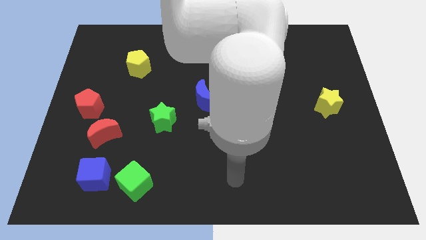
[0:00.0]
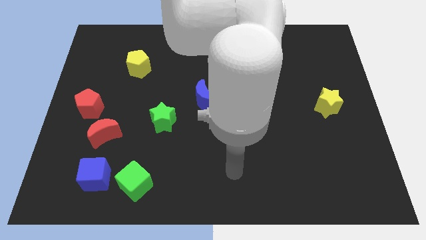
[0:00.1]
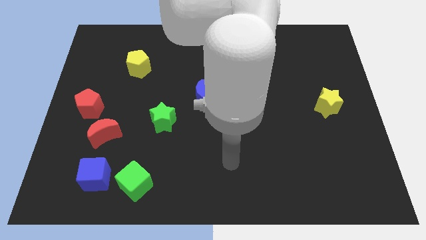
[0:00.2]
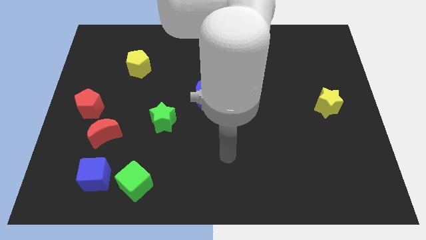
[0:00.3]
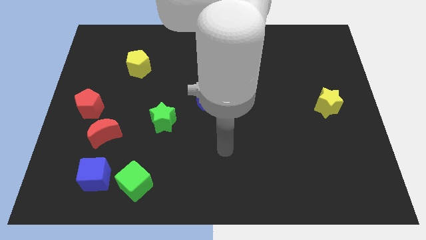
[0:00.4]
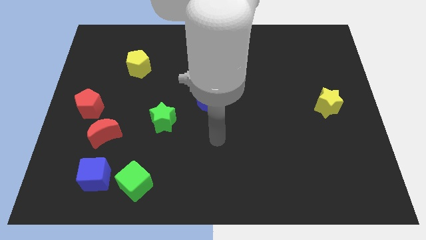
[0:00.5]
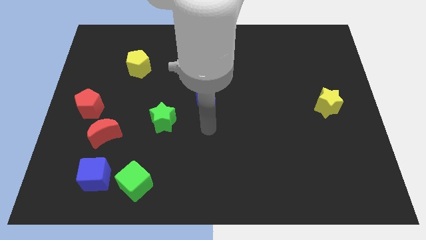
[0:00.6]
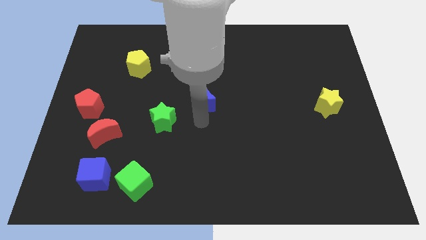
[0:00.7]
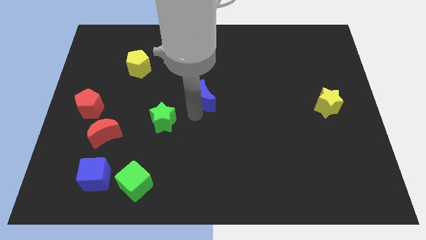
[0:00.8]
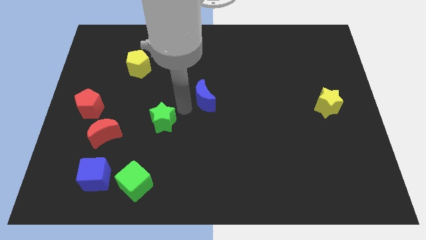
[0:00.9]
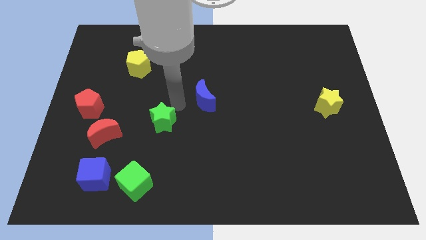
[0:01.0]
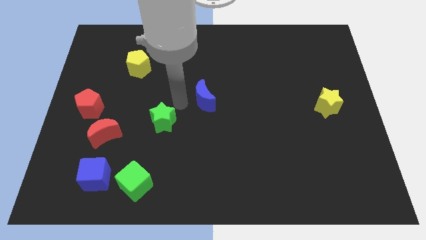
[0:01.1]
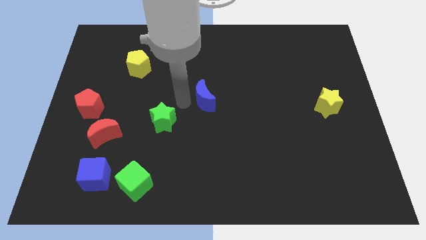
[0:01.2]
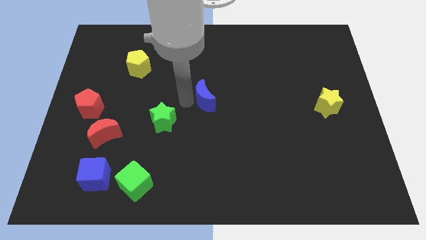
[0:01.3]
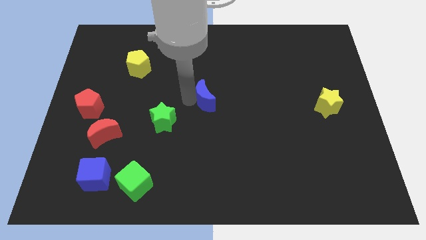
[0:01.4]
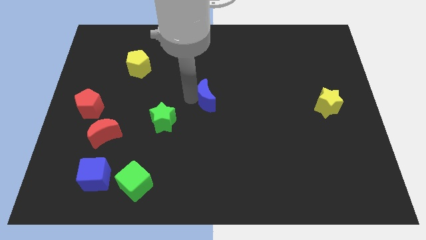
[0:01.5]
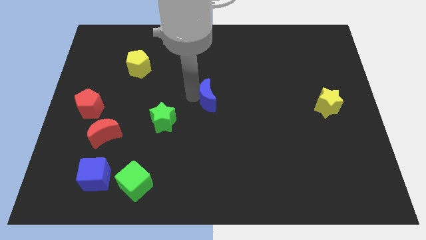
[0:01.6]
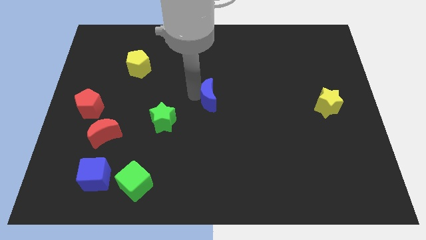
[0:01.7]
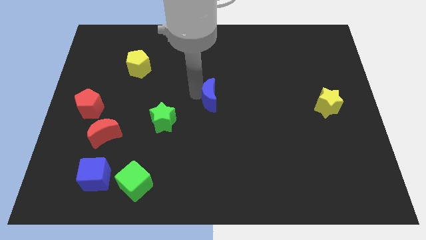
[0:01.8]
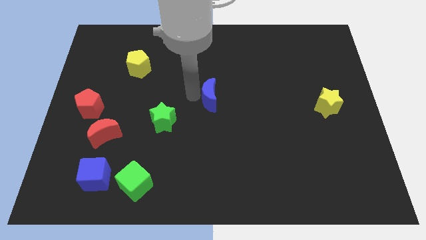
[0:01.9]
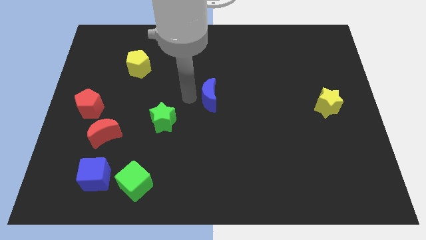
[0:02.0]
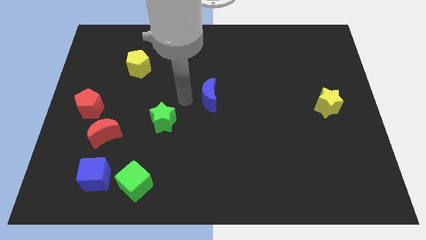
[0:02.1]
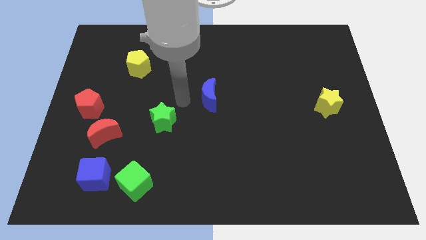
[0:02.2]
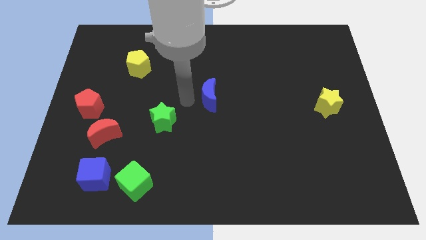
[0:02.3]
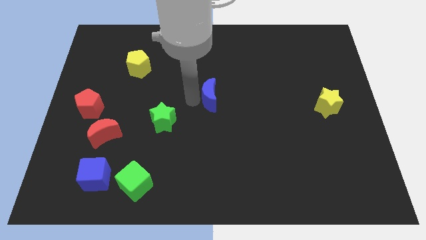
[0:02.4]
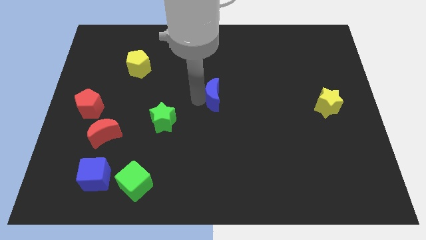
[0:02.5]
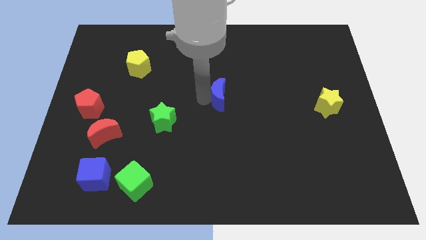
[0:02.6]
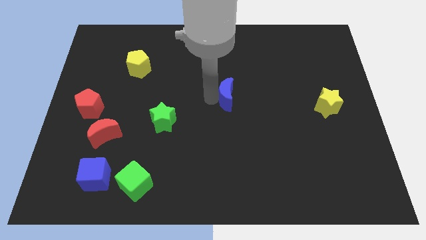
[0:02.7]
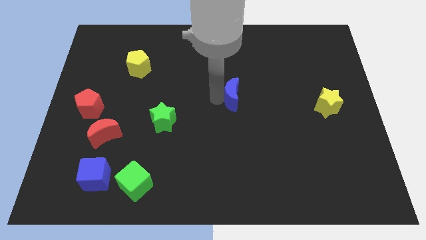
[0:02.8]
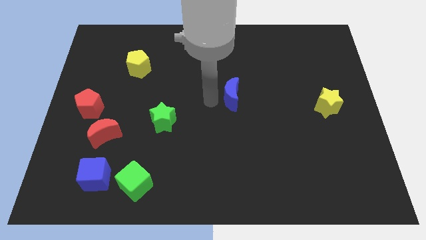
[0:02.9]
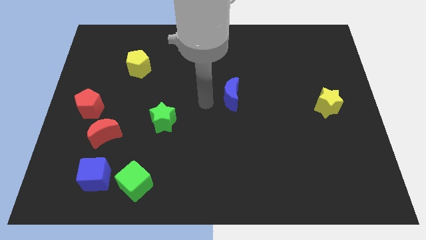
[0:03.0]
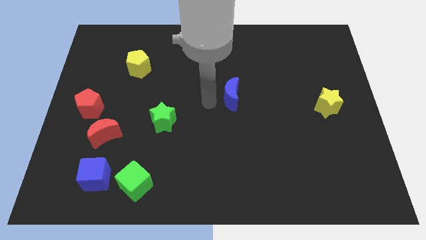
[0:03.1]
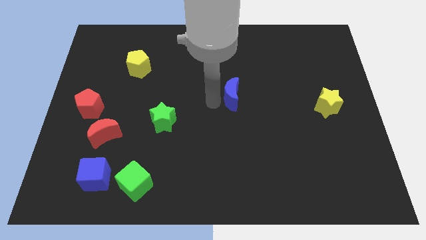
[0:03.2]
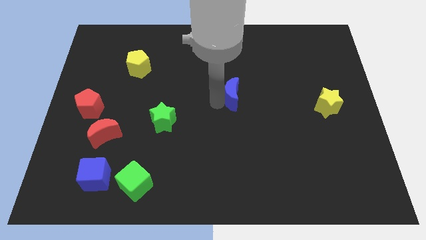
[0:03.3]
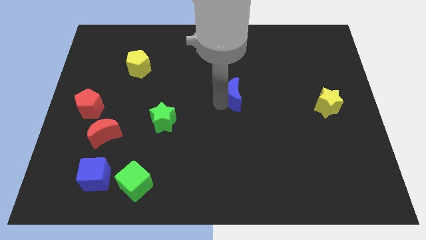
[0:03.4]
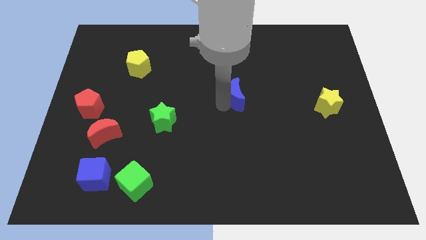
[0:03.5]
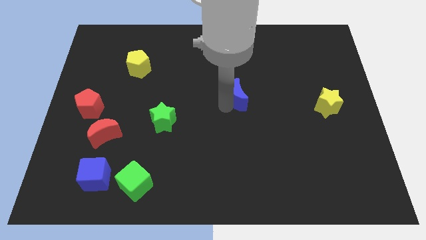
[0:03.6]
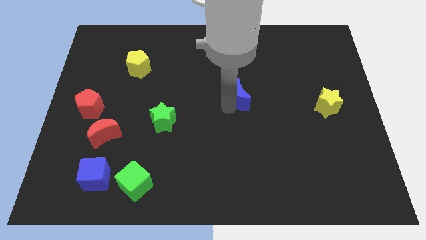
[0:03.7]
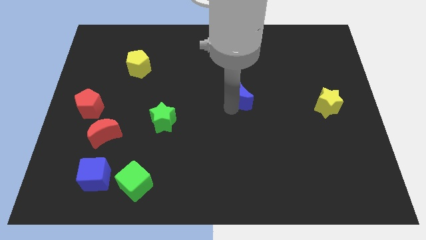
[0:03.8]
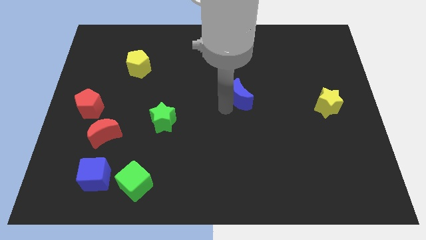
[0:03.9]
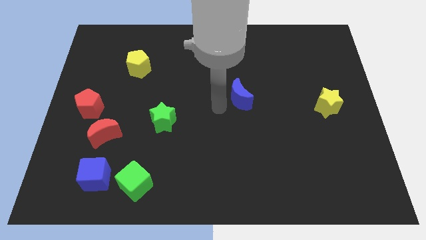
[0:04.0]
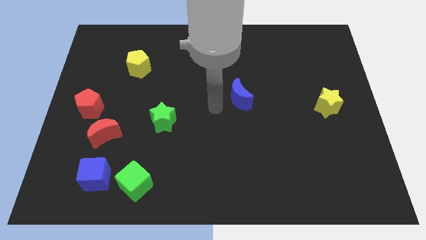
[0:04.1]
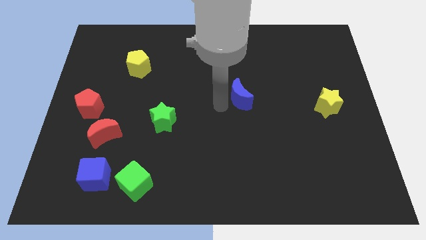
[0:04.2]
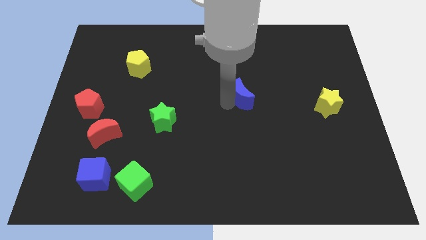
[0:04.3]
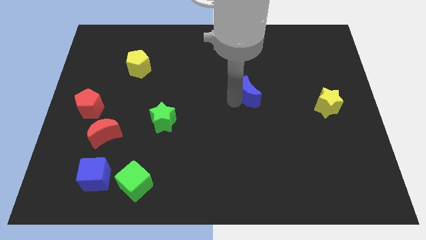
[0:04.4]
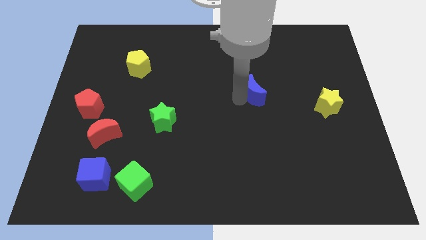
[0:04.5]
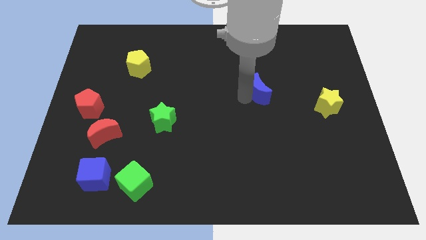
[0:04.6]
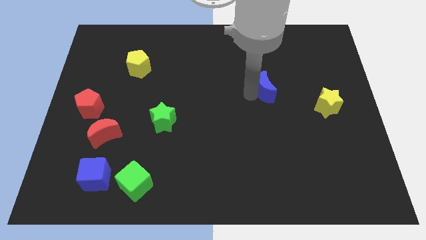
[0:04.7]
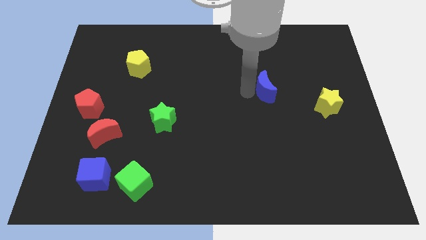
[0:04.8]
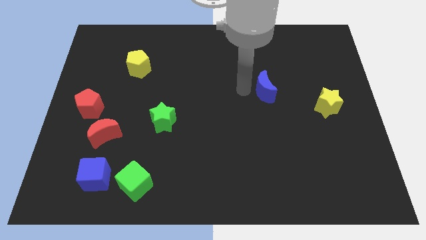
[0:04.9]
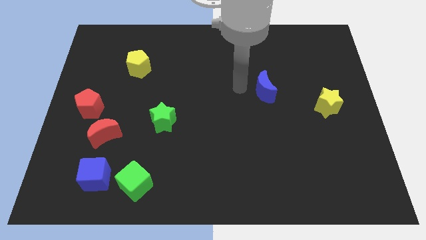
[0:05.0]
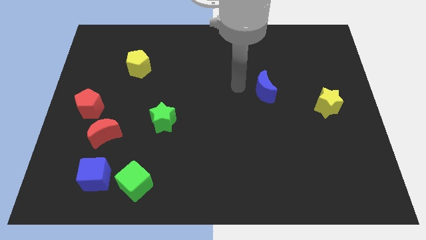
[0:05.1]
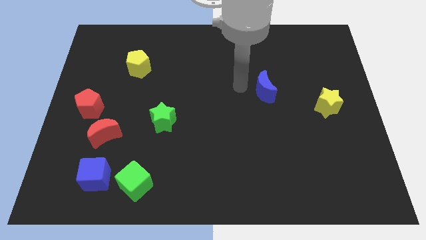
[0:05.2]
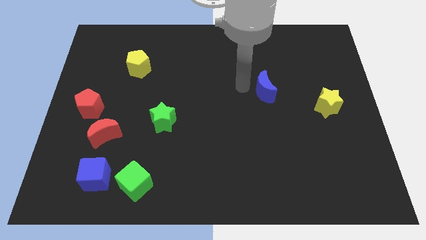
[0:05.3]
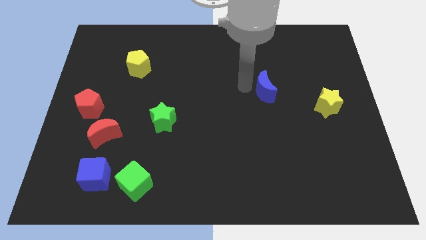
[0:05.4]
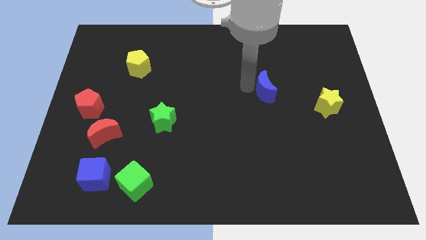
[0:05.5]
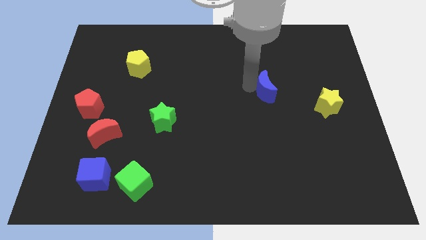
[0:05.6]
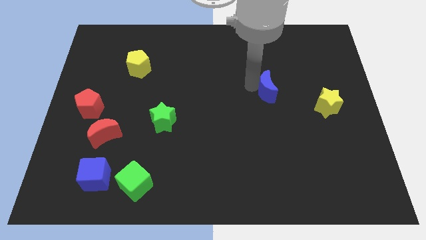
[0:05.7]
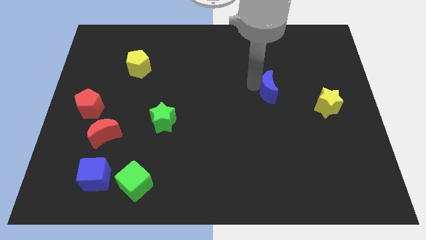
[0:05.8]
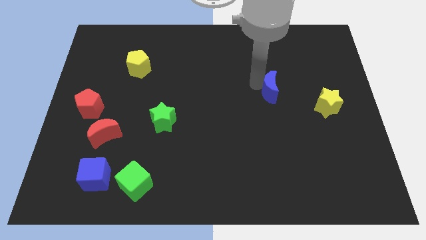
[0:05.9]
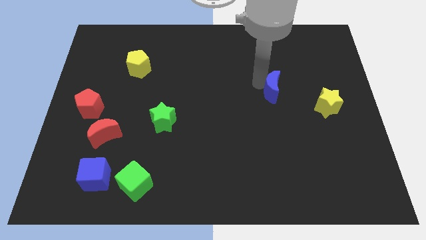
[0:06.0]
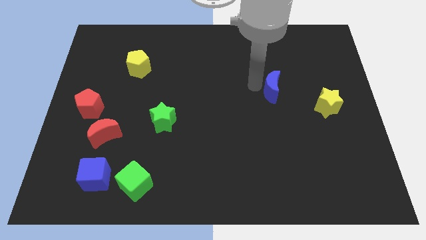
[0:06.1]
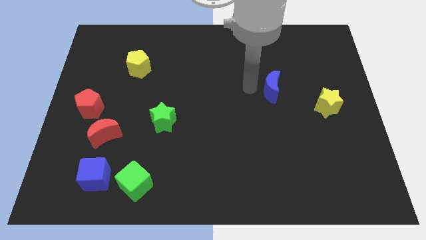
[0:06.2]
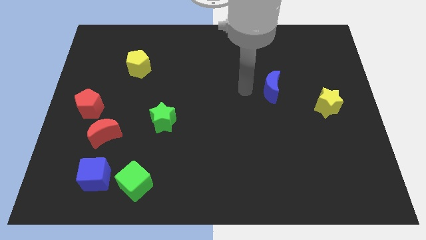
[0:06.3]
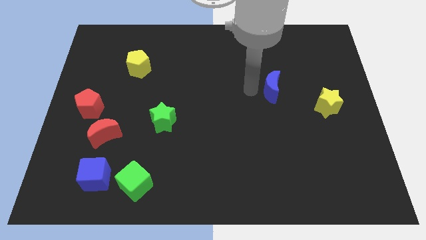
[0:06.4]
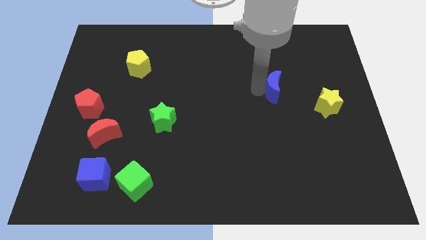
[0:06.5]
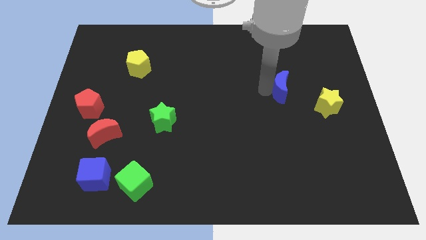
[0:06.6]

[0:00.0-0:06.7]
slide the blue moon diagonally up and to the left of the yellow star
